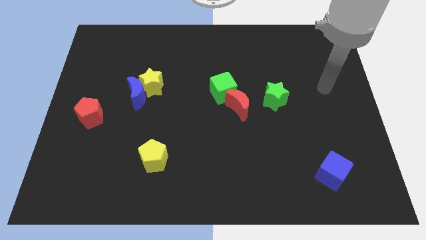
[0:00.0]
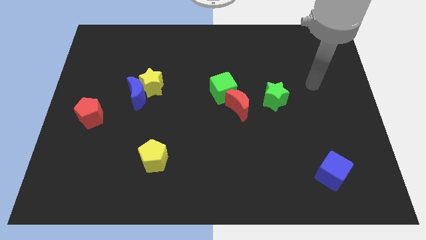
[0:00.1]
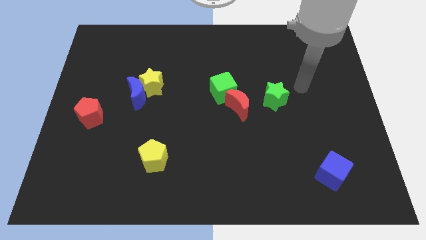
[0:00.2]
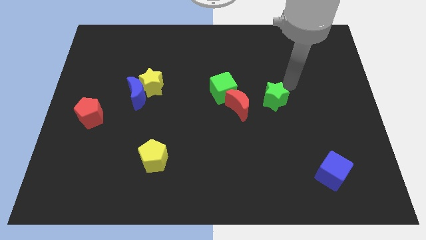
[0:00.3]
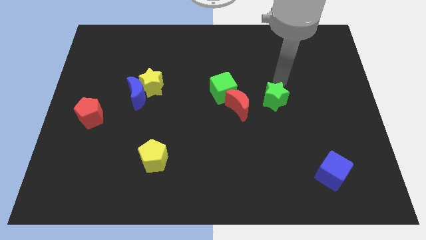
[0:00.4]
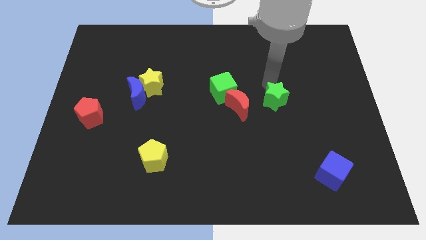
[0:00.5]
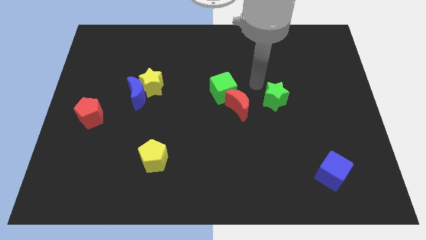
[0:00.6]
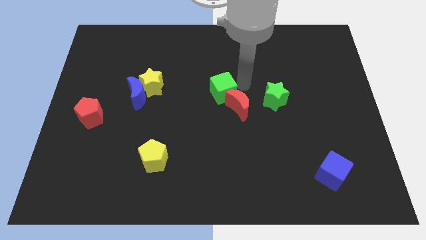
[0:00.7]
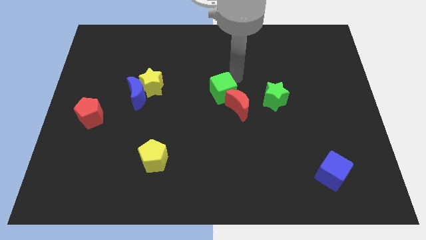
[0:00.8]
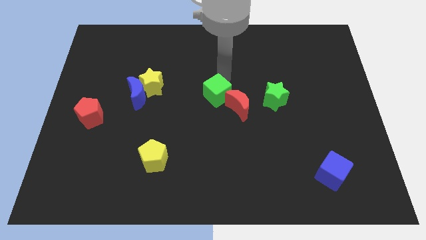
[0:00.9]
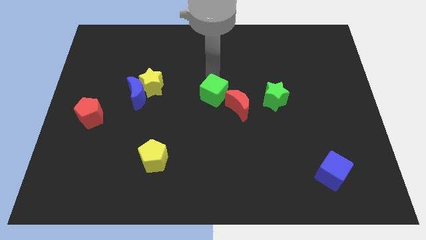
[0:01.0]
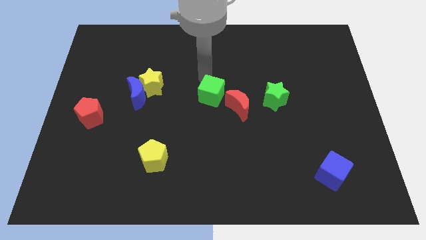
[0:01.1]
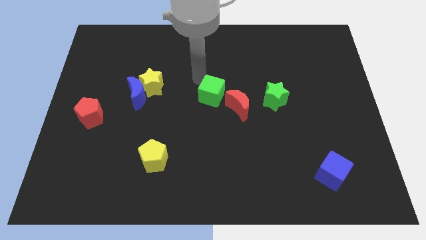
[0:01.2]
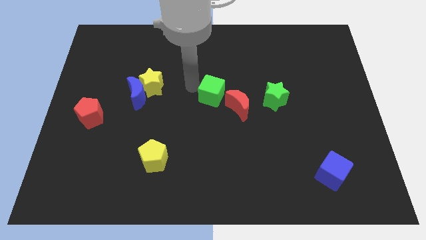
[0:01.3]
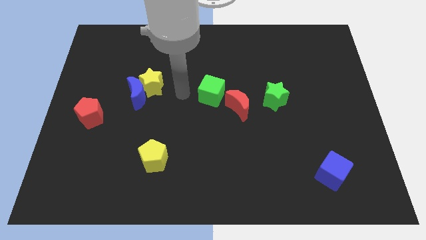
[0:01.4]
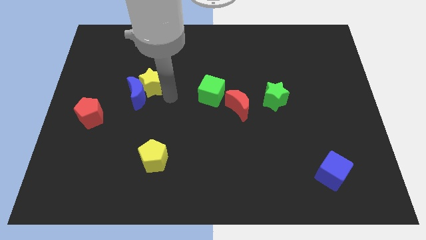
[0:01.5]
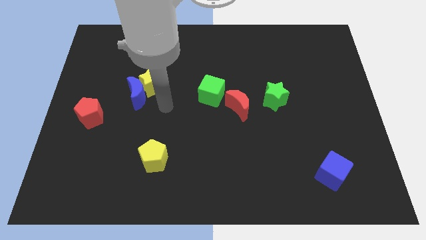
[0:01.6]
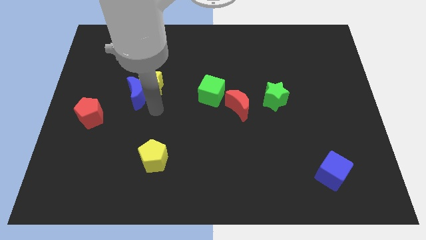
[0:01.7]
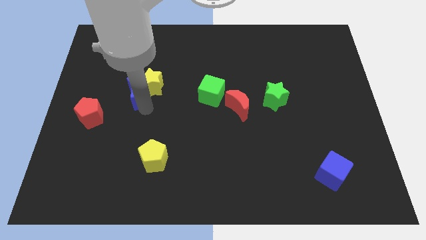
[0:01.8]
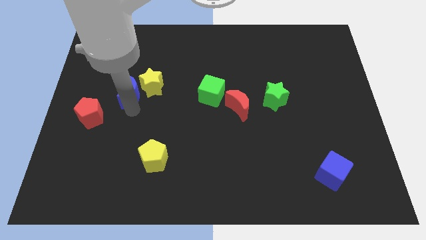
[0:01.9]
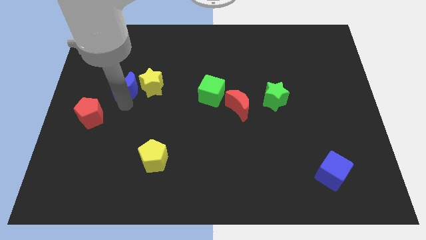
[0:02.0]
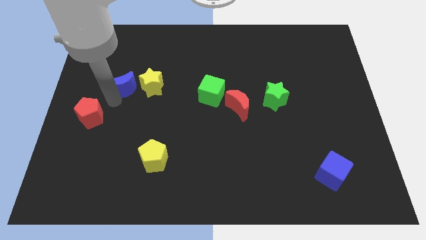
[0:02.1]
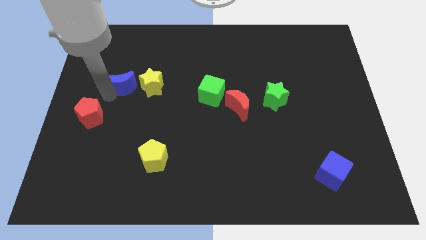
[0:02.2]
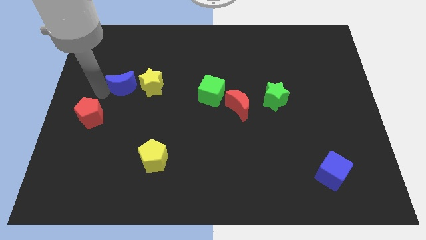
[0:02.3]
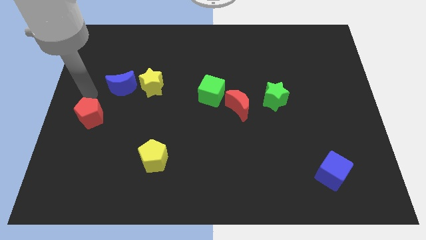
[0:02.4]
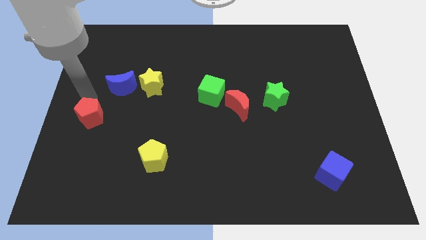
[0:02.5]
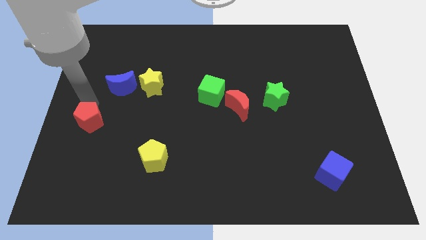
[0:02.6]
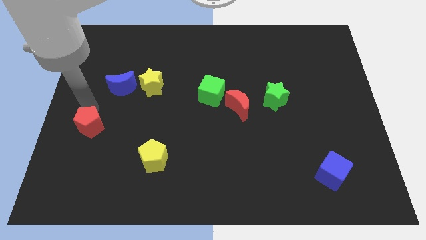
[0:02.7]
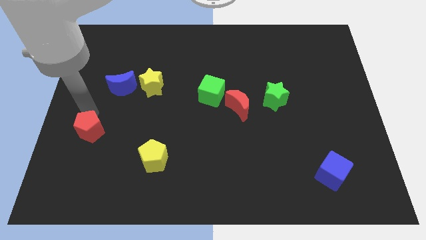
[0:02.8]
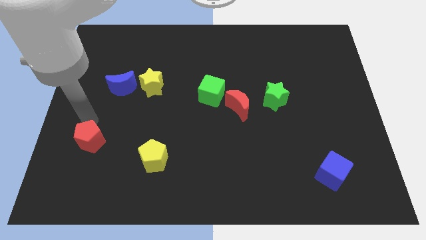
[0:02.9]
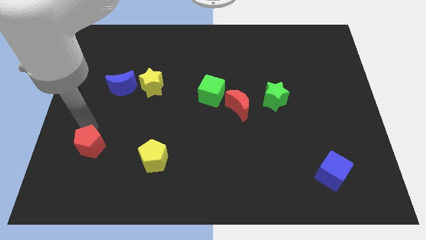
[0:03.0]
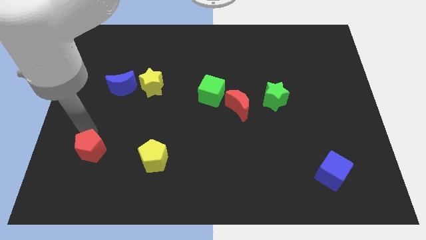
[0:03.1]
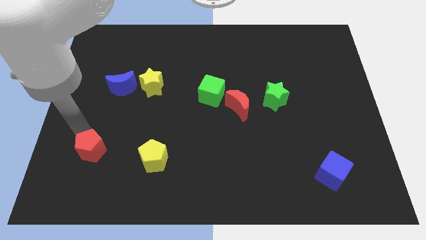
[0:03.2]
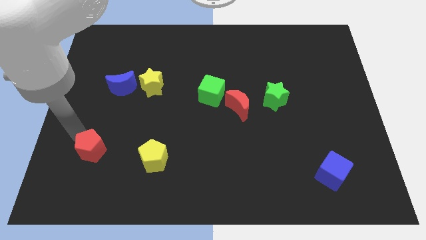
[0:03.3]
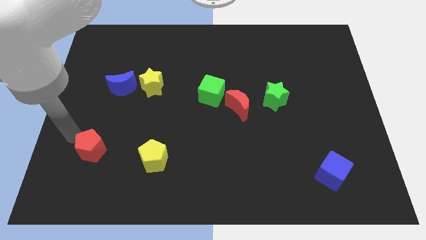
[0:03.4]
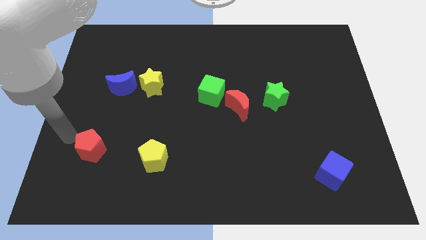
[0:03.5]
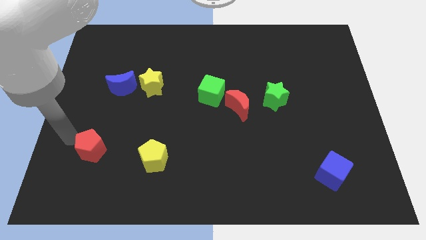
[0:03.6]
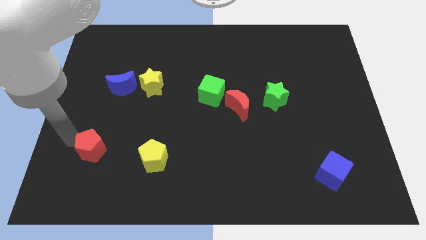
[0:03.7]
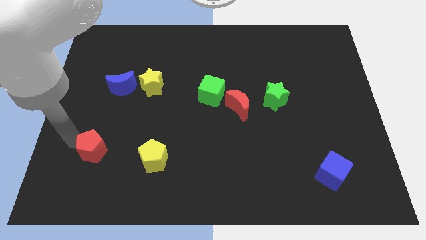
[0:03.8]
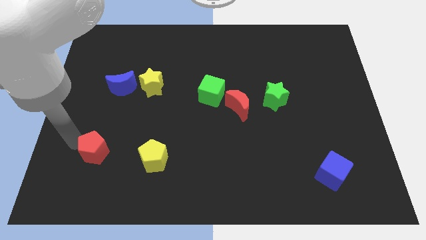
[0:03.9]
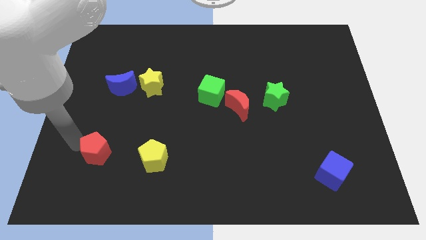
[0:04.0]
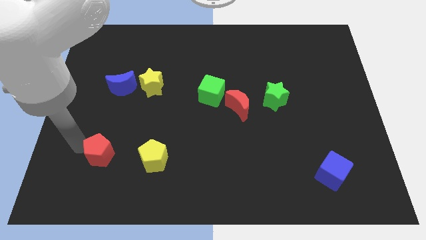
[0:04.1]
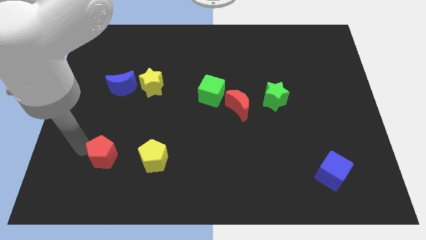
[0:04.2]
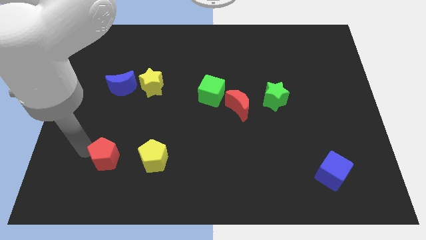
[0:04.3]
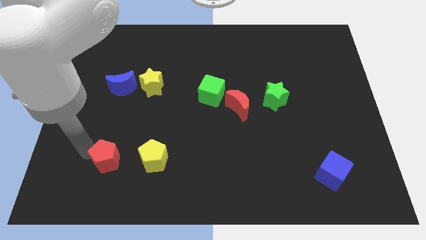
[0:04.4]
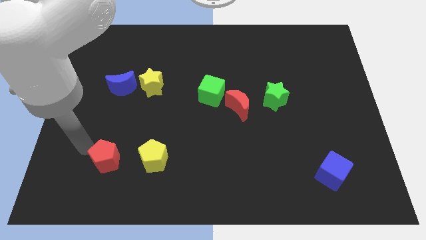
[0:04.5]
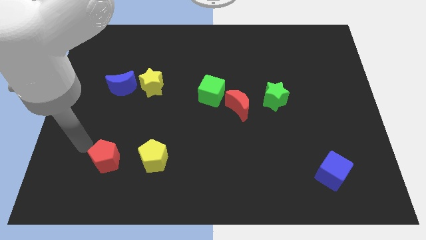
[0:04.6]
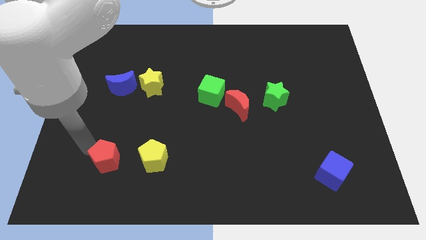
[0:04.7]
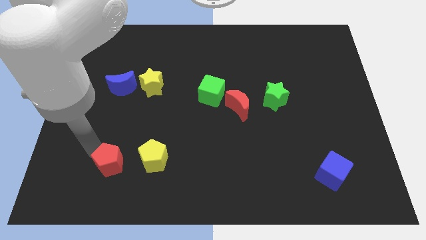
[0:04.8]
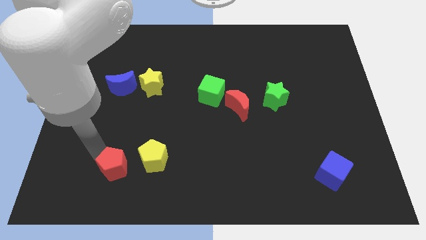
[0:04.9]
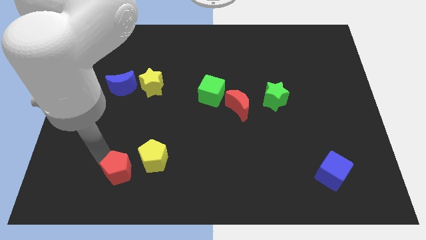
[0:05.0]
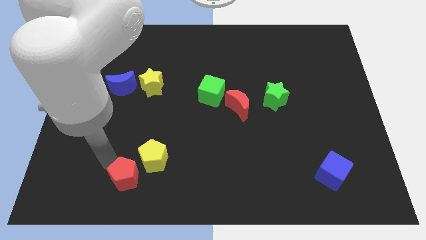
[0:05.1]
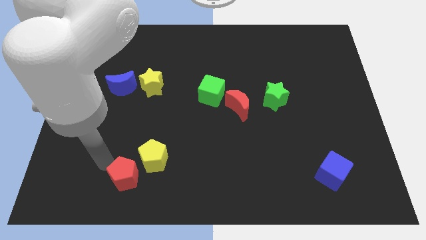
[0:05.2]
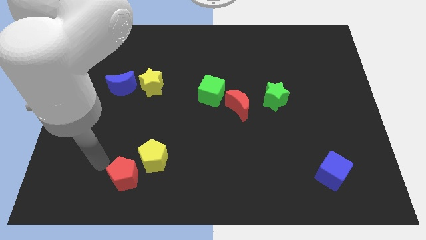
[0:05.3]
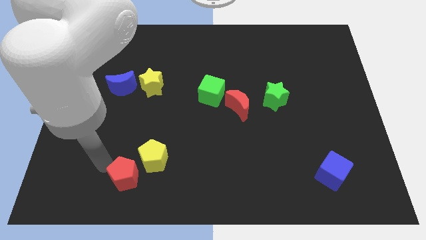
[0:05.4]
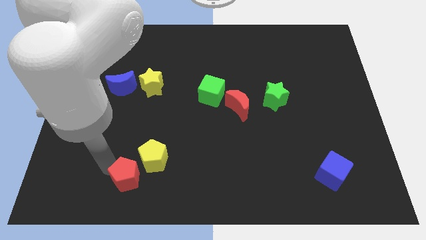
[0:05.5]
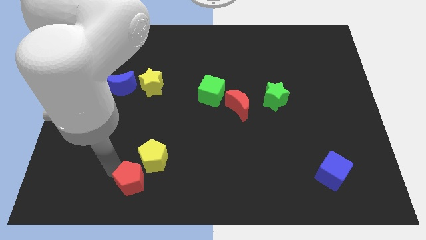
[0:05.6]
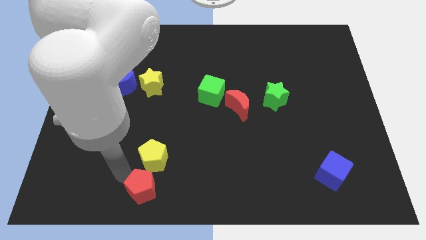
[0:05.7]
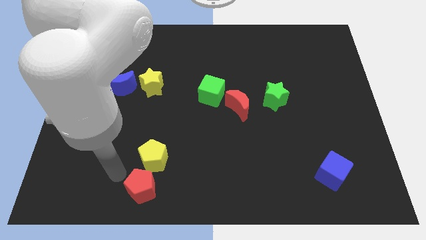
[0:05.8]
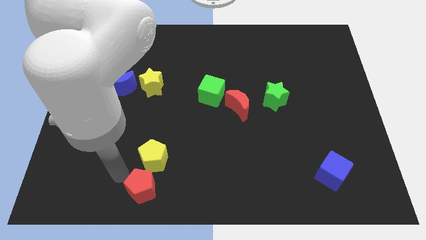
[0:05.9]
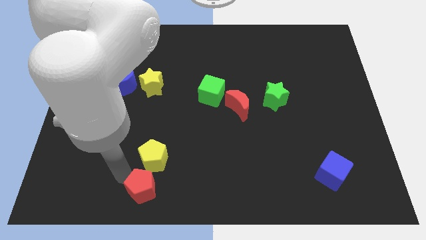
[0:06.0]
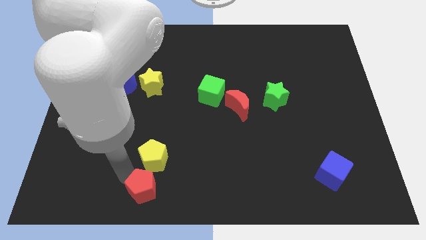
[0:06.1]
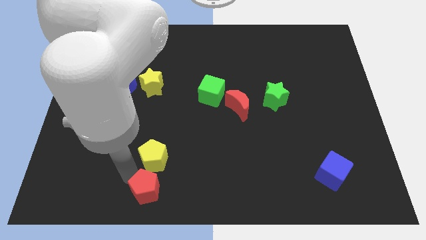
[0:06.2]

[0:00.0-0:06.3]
slide the red pentagon to the bottom
